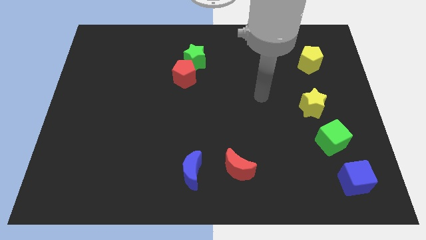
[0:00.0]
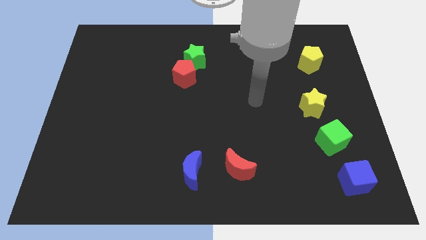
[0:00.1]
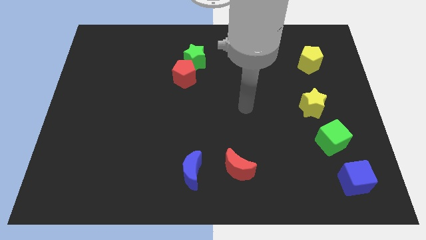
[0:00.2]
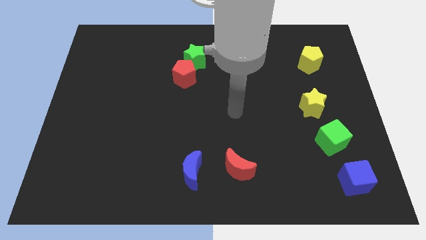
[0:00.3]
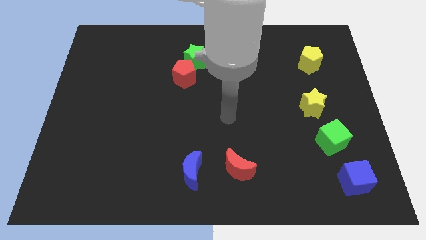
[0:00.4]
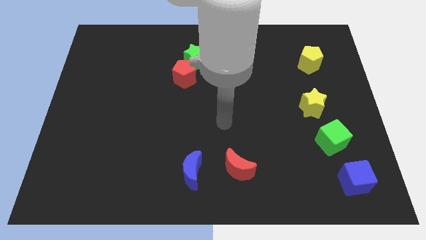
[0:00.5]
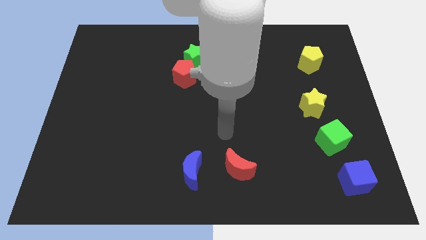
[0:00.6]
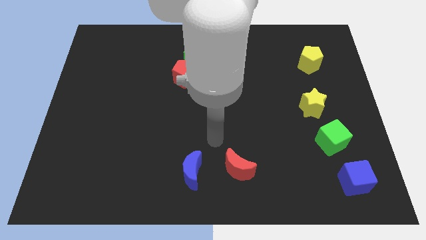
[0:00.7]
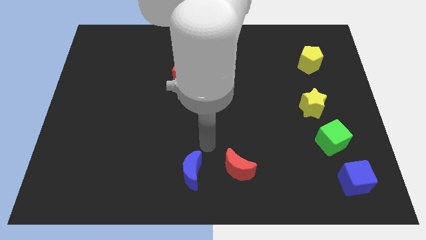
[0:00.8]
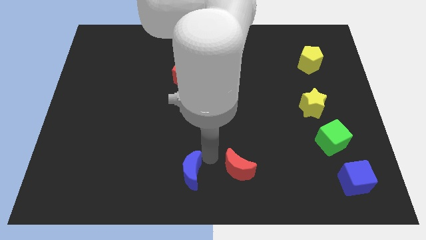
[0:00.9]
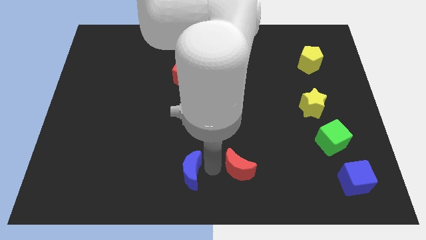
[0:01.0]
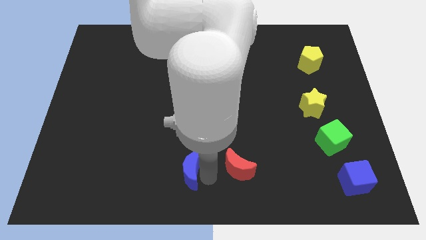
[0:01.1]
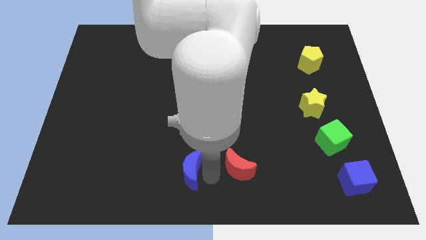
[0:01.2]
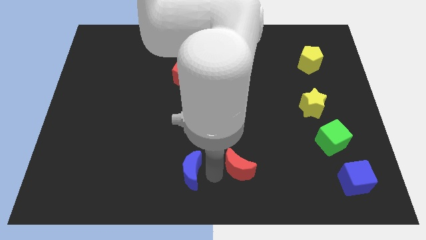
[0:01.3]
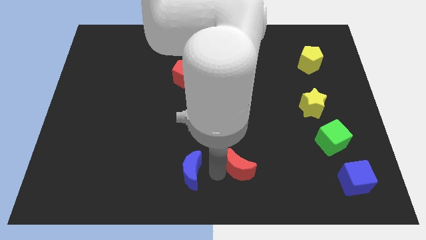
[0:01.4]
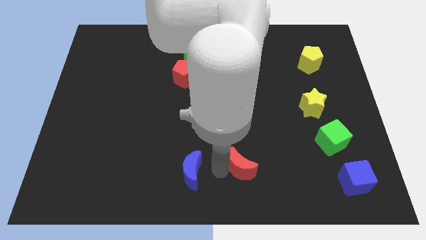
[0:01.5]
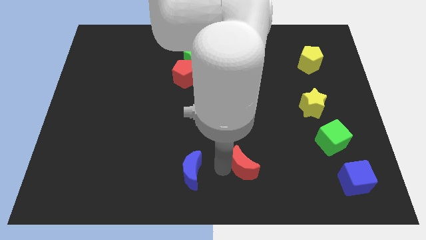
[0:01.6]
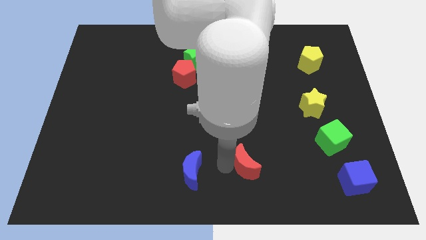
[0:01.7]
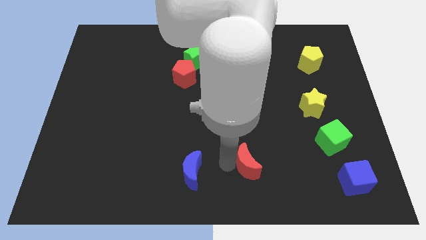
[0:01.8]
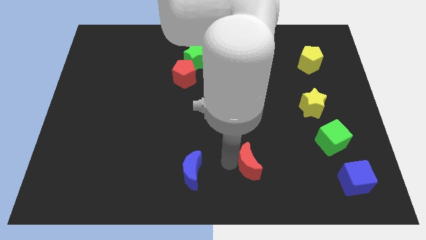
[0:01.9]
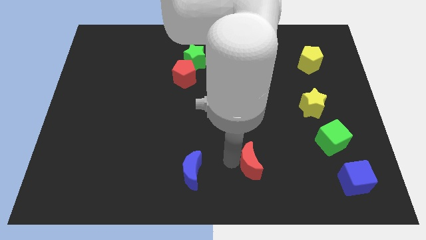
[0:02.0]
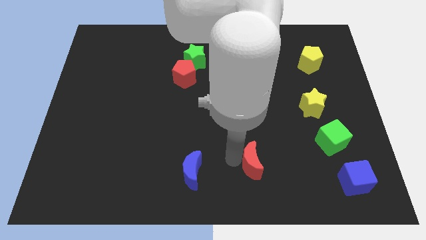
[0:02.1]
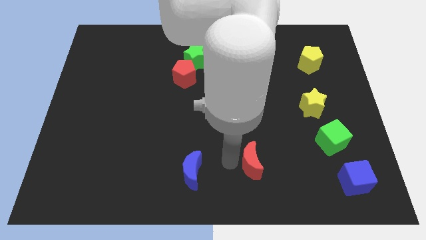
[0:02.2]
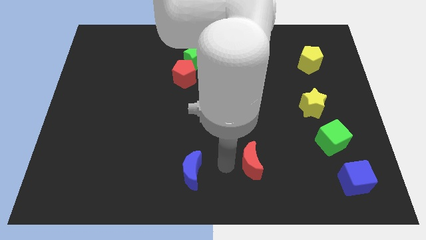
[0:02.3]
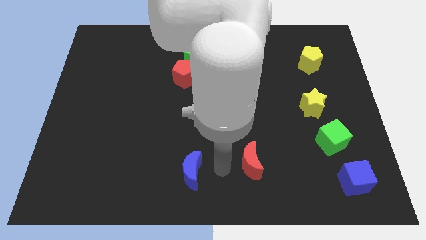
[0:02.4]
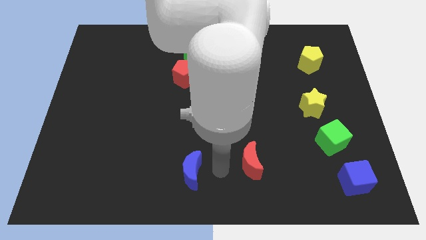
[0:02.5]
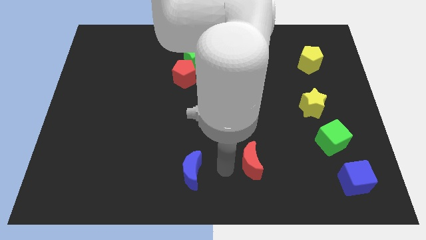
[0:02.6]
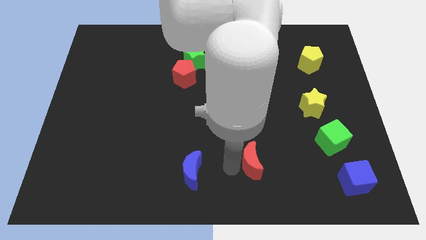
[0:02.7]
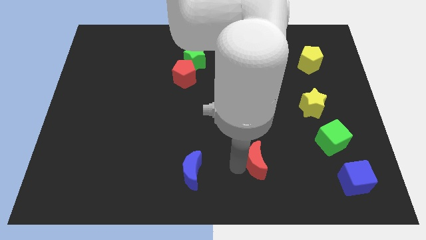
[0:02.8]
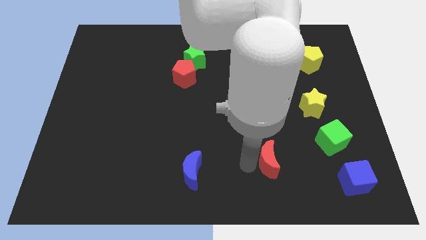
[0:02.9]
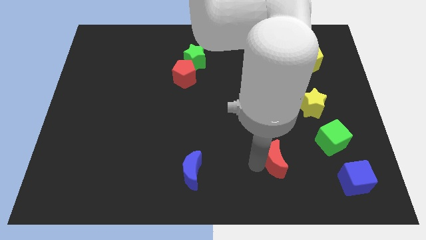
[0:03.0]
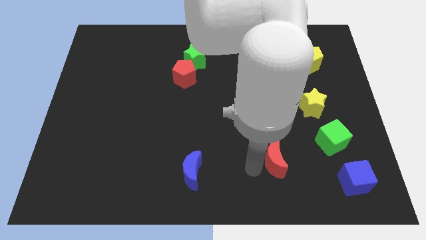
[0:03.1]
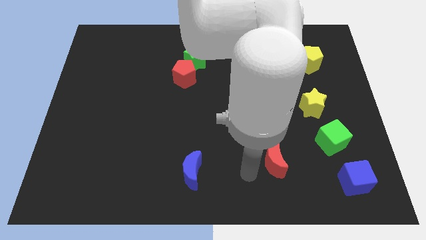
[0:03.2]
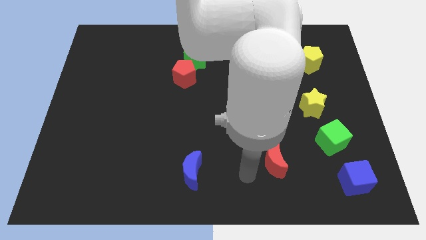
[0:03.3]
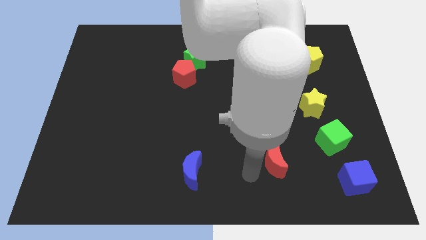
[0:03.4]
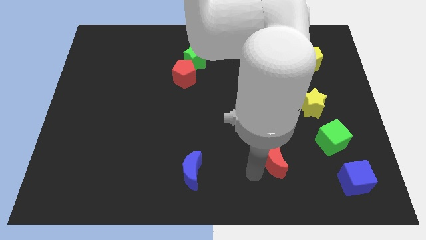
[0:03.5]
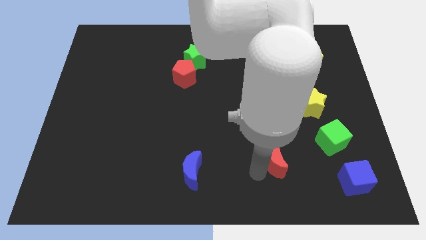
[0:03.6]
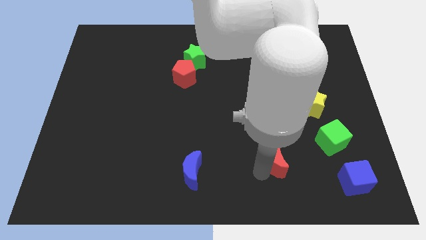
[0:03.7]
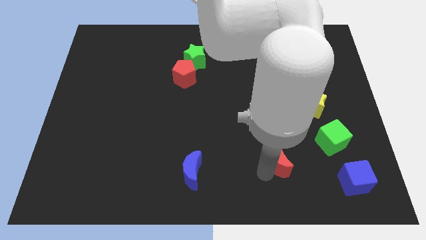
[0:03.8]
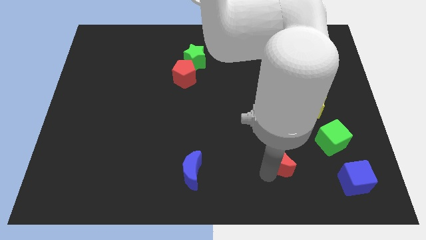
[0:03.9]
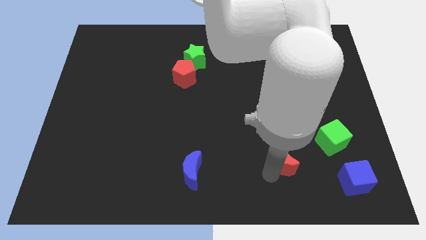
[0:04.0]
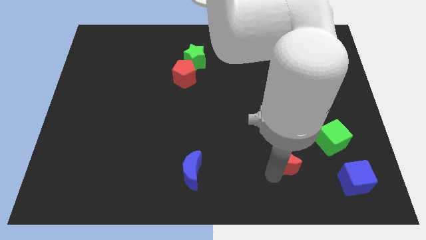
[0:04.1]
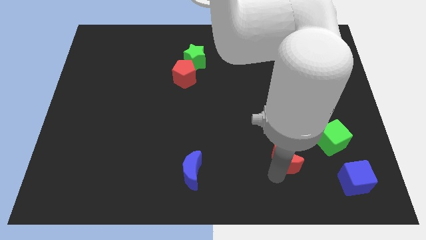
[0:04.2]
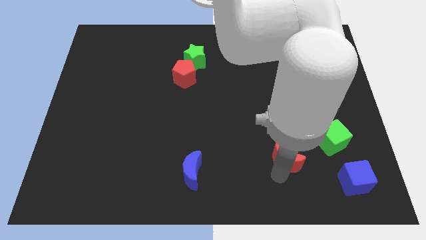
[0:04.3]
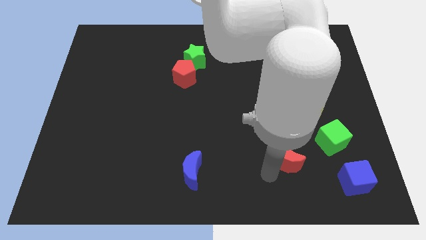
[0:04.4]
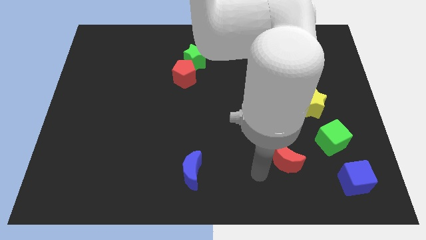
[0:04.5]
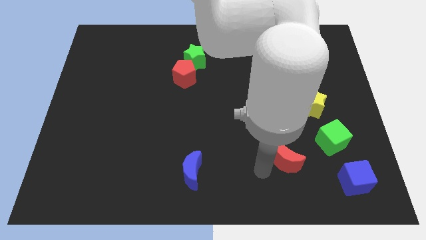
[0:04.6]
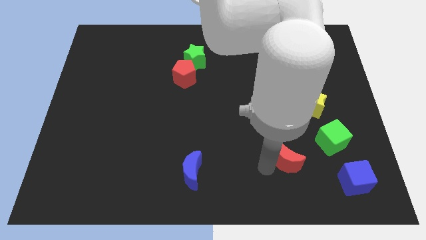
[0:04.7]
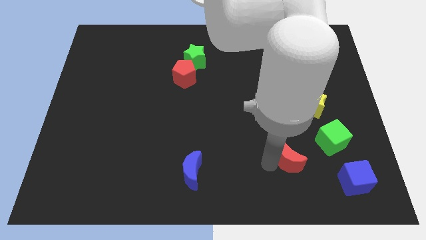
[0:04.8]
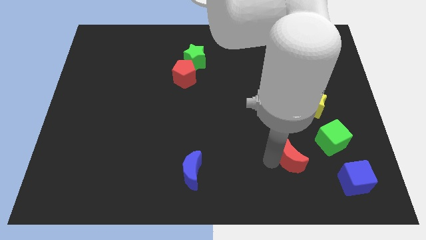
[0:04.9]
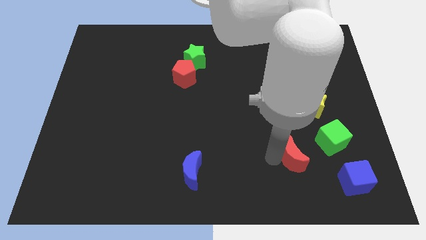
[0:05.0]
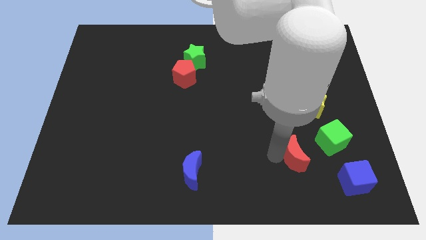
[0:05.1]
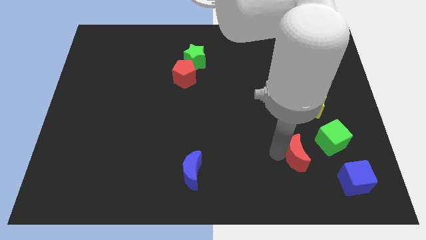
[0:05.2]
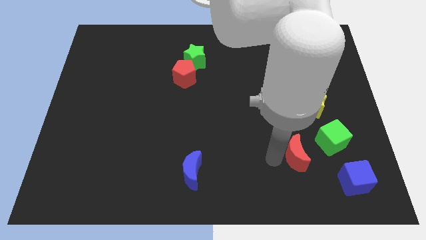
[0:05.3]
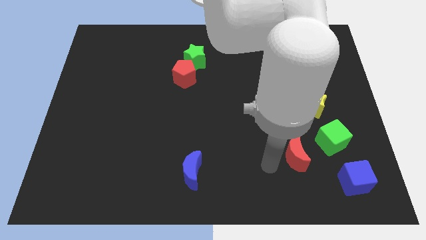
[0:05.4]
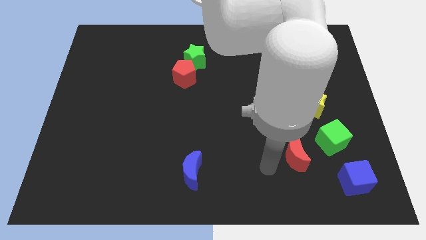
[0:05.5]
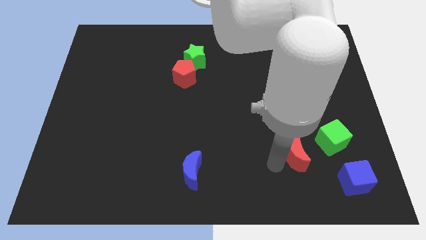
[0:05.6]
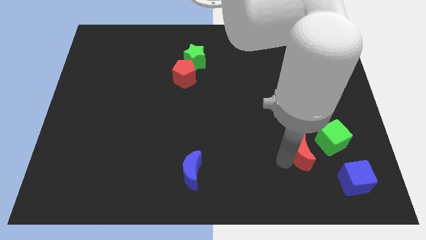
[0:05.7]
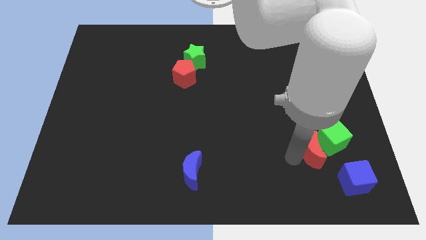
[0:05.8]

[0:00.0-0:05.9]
push the red moon towards the green cube
